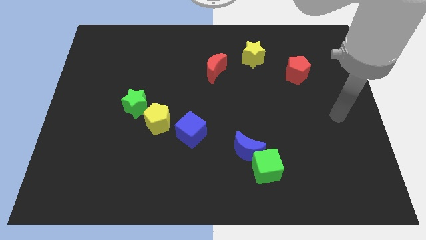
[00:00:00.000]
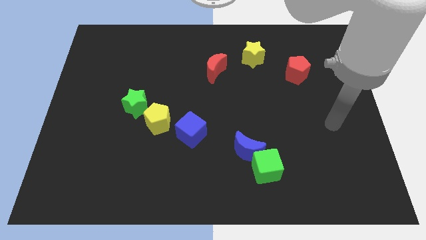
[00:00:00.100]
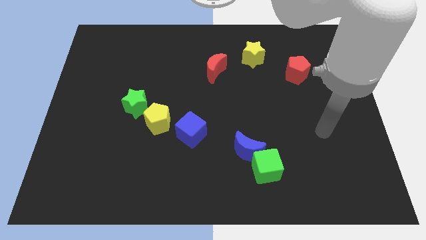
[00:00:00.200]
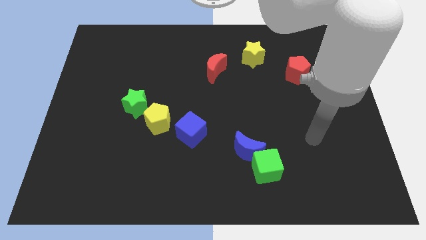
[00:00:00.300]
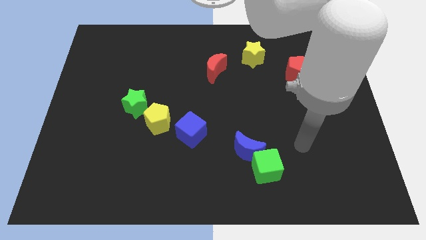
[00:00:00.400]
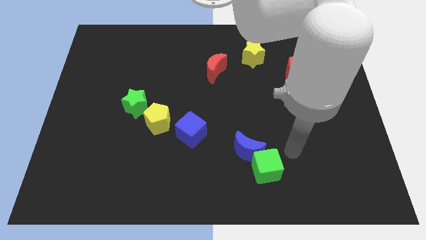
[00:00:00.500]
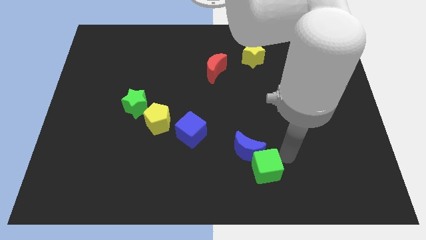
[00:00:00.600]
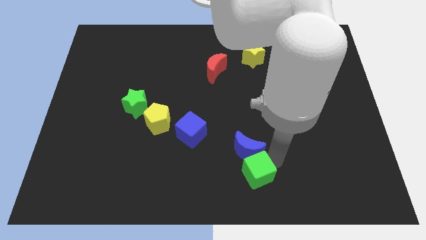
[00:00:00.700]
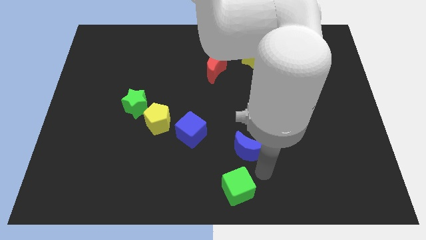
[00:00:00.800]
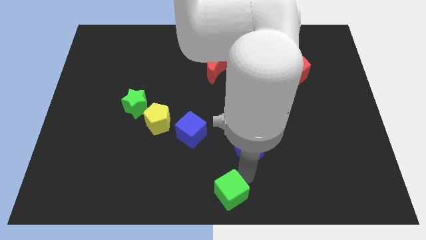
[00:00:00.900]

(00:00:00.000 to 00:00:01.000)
pull the blue moon apart from the green cube

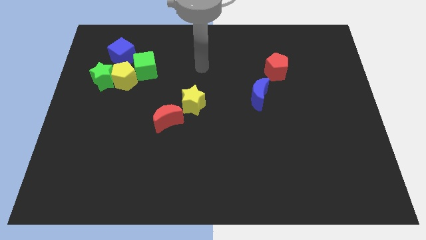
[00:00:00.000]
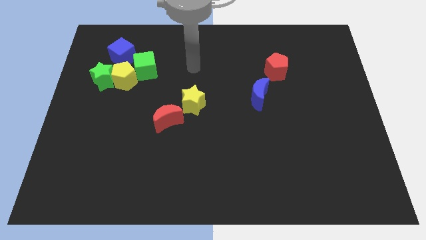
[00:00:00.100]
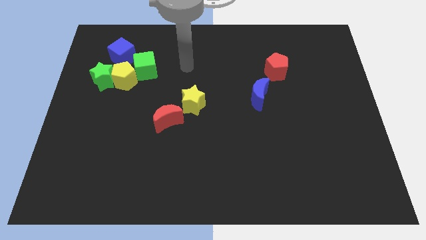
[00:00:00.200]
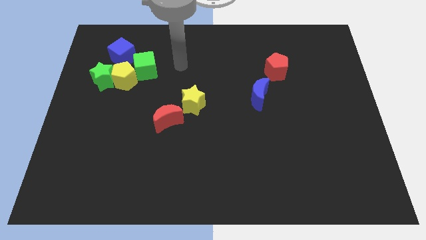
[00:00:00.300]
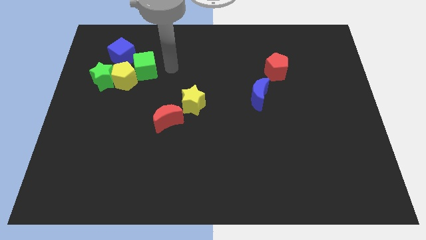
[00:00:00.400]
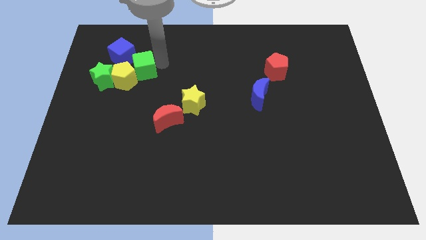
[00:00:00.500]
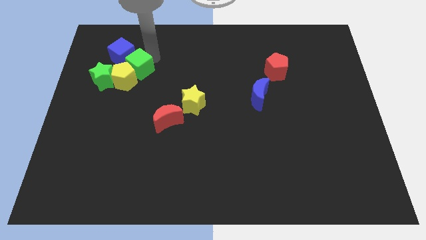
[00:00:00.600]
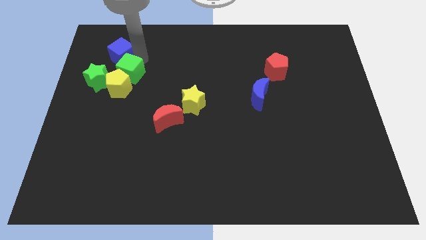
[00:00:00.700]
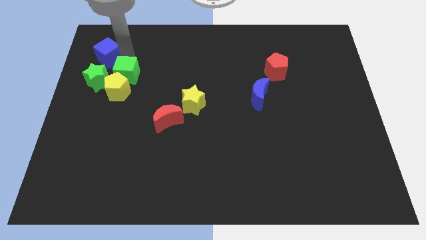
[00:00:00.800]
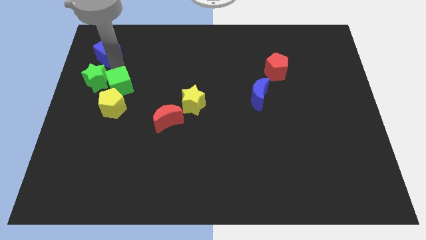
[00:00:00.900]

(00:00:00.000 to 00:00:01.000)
separate the yellow pentagon from the green star, green cube, and blue cube

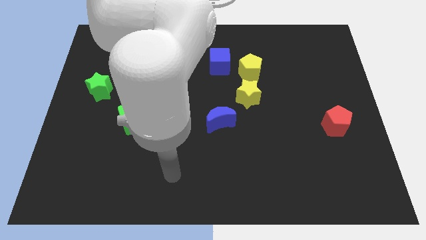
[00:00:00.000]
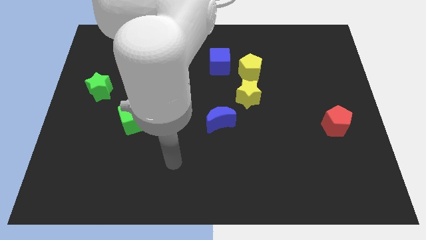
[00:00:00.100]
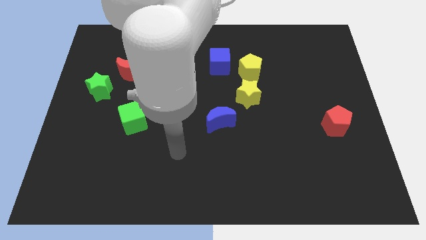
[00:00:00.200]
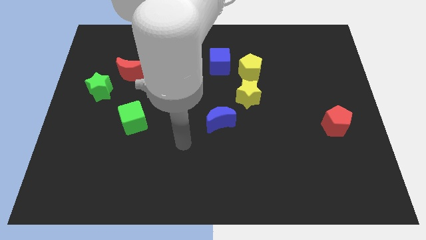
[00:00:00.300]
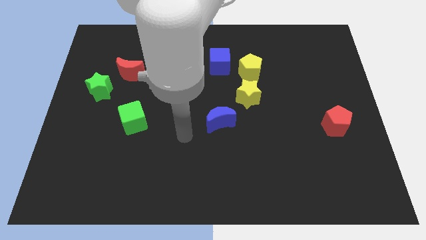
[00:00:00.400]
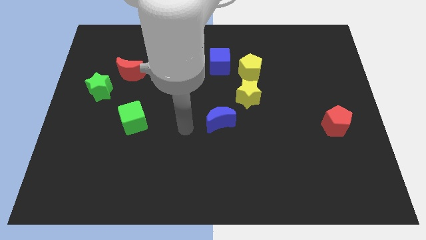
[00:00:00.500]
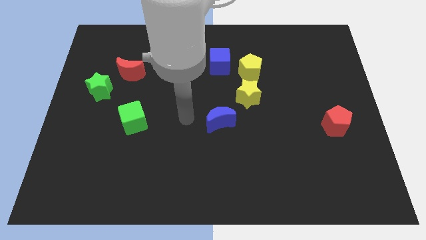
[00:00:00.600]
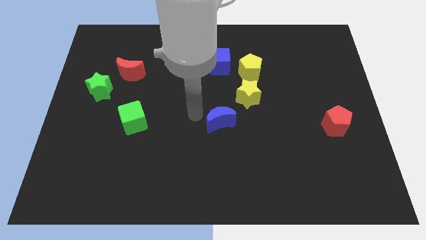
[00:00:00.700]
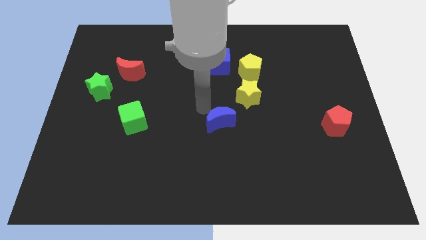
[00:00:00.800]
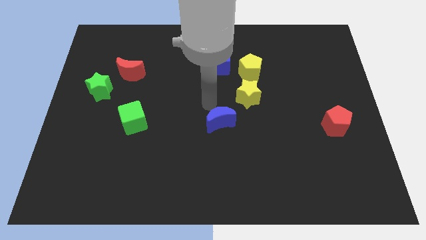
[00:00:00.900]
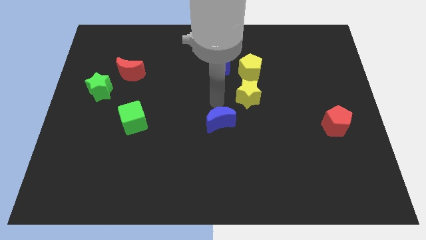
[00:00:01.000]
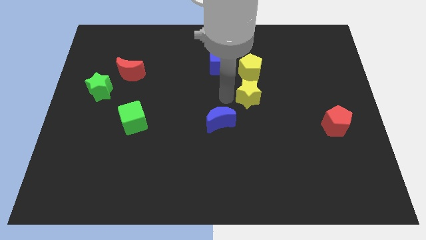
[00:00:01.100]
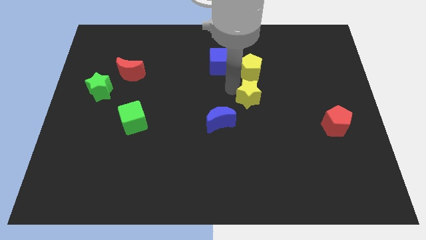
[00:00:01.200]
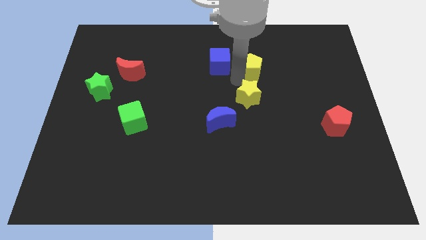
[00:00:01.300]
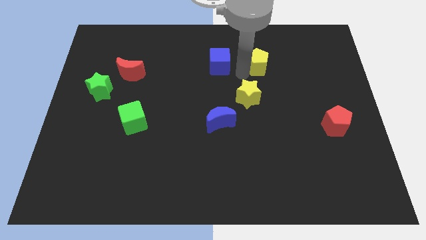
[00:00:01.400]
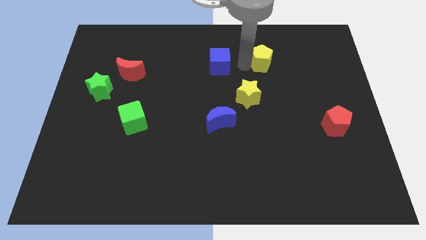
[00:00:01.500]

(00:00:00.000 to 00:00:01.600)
move the blue cube away from the yellow pentagon

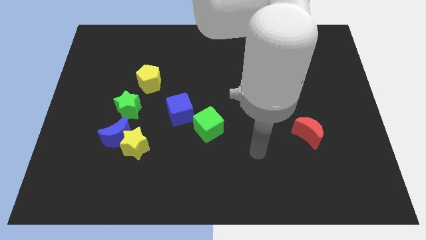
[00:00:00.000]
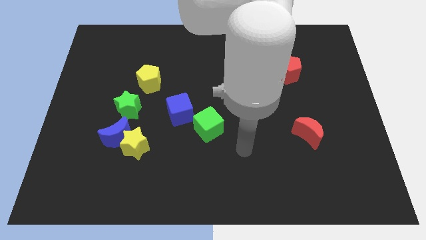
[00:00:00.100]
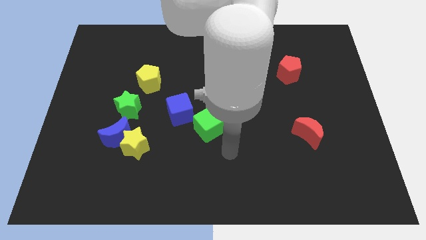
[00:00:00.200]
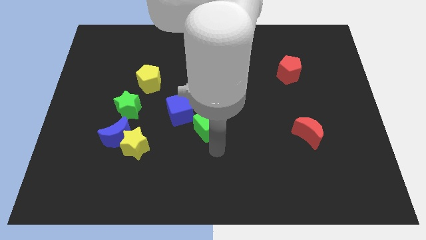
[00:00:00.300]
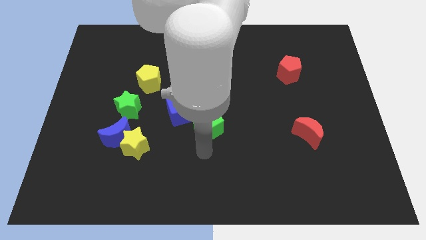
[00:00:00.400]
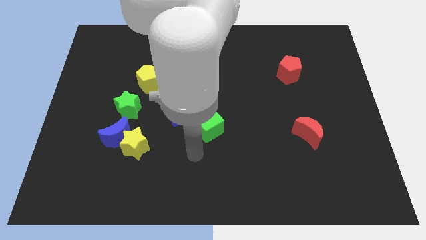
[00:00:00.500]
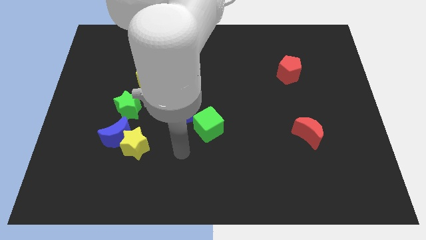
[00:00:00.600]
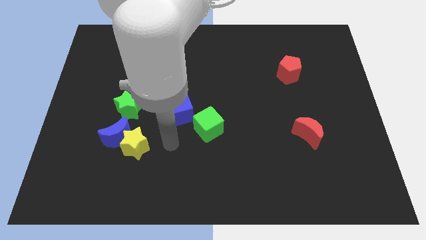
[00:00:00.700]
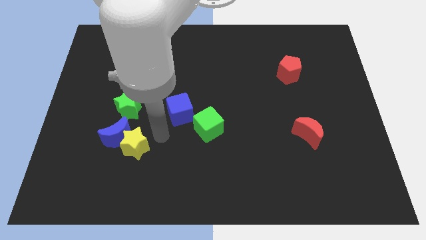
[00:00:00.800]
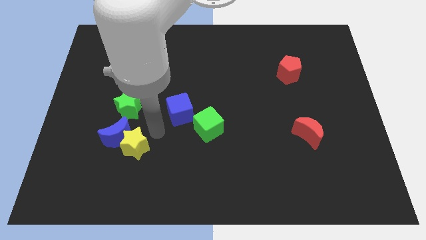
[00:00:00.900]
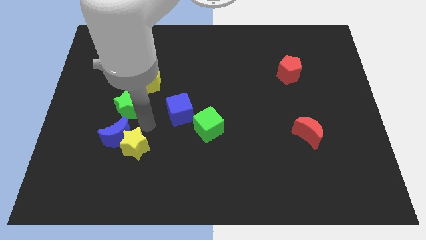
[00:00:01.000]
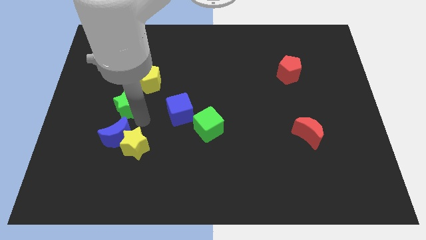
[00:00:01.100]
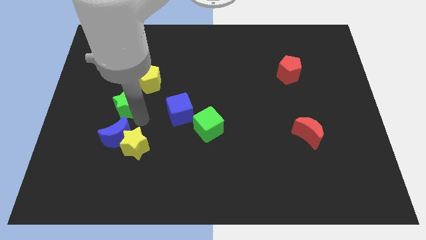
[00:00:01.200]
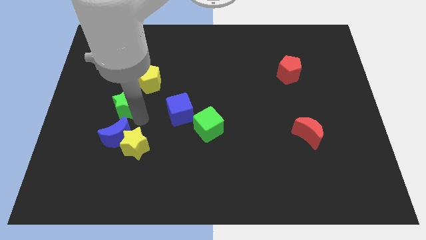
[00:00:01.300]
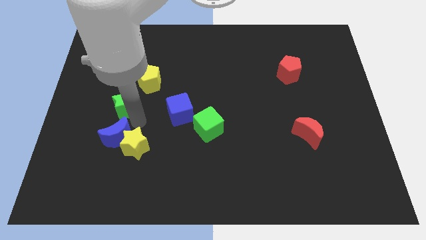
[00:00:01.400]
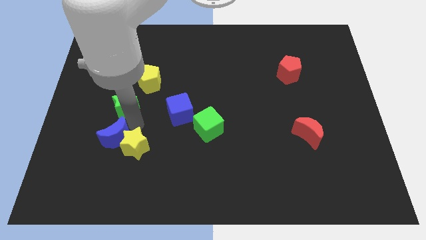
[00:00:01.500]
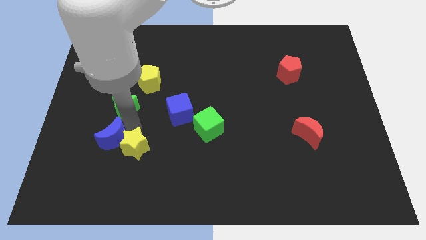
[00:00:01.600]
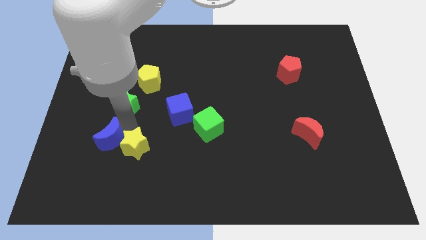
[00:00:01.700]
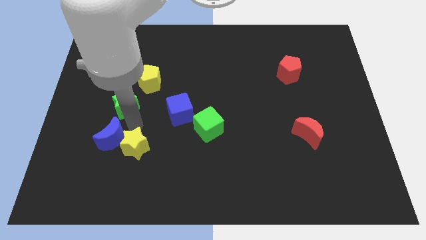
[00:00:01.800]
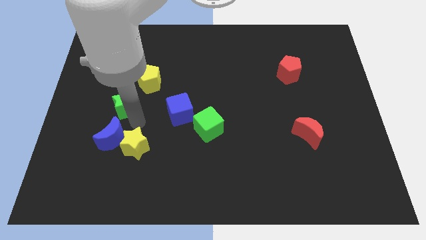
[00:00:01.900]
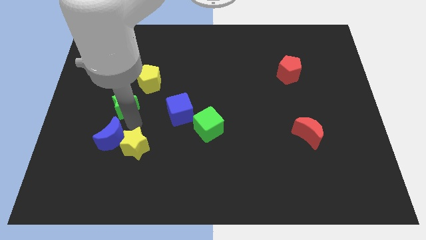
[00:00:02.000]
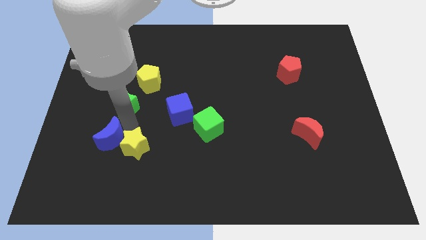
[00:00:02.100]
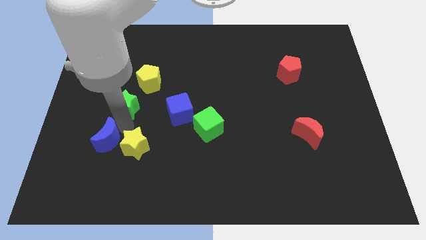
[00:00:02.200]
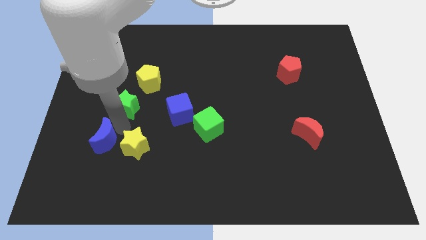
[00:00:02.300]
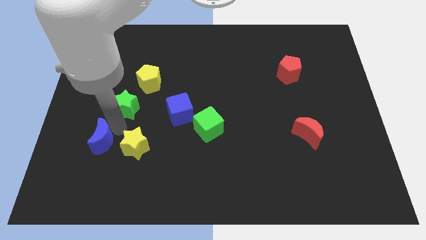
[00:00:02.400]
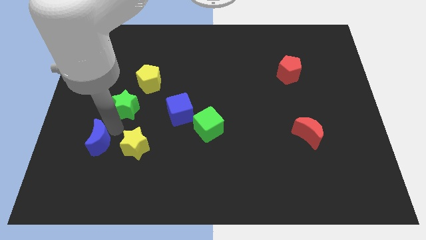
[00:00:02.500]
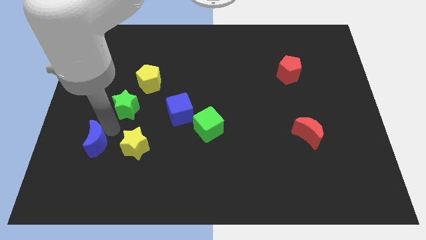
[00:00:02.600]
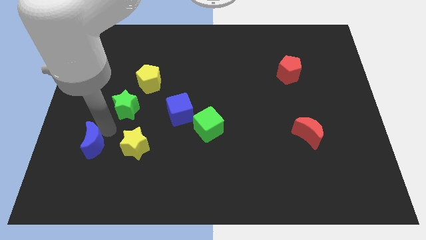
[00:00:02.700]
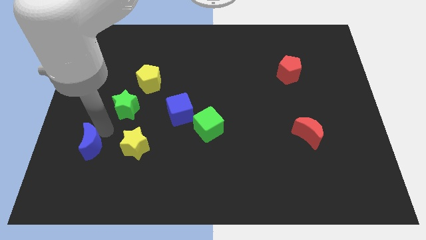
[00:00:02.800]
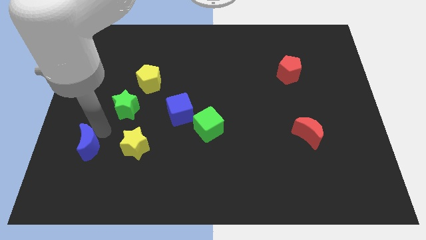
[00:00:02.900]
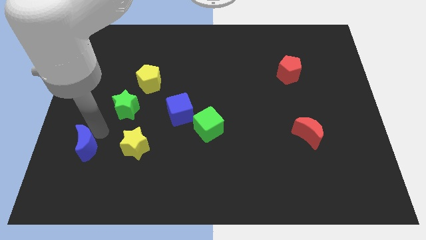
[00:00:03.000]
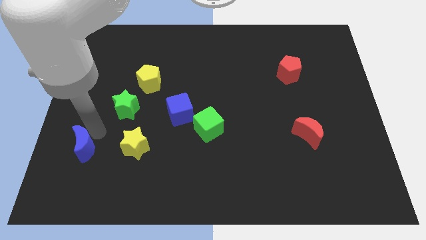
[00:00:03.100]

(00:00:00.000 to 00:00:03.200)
pull the blue moon apart from the yellow star and green star

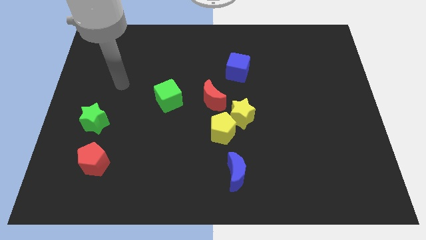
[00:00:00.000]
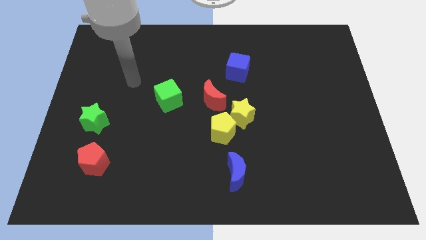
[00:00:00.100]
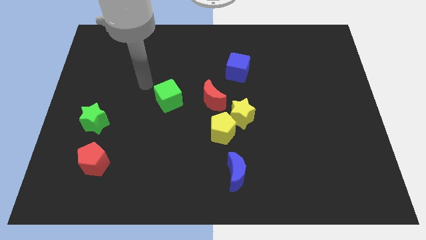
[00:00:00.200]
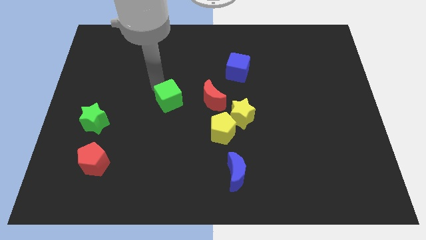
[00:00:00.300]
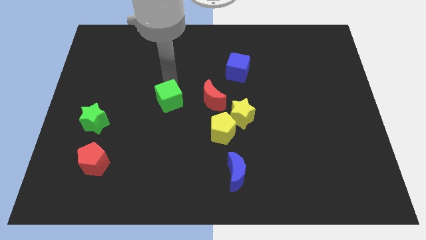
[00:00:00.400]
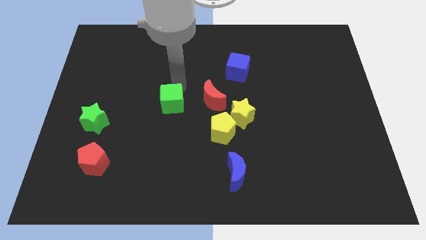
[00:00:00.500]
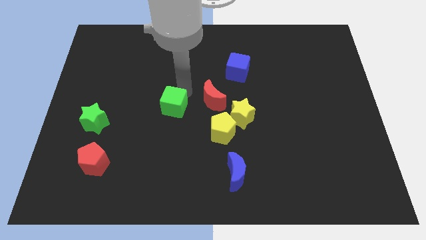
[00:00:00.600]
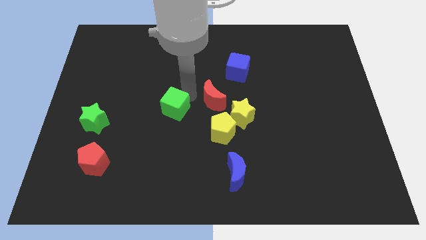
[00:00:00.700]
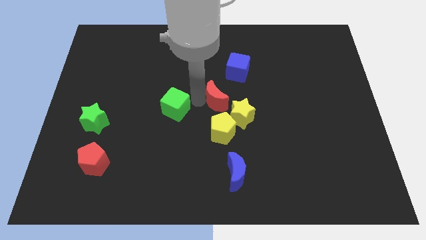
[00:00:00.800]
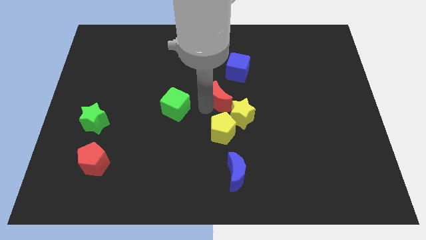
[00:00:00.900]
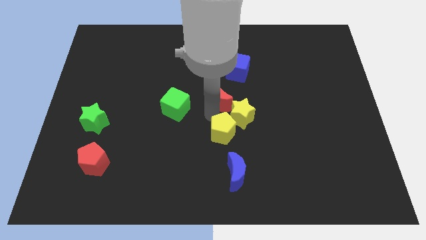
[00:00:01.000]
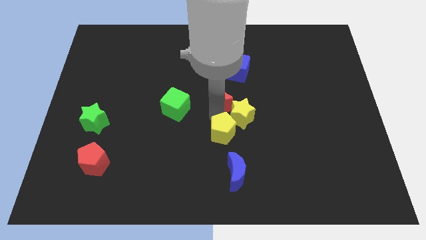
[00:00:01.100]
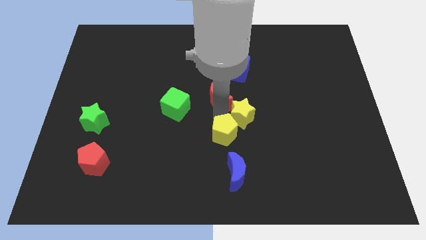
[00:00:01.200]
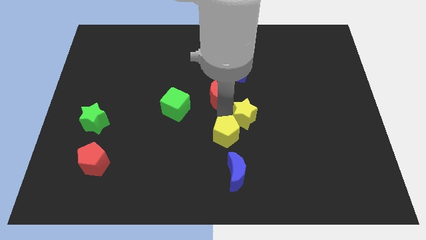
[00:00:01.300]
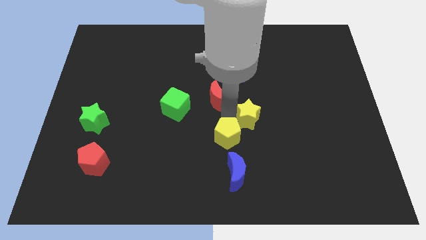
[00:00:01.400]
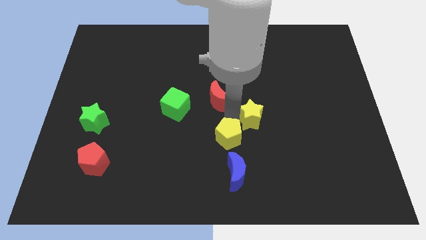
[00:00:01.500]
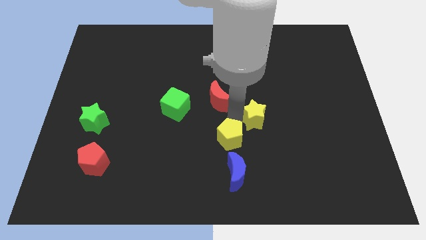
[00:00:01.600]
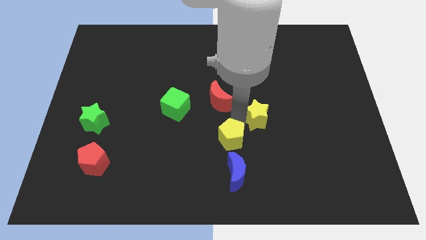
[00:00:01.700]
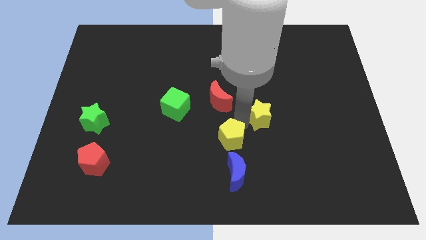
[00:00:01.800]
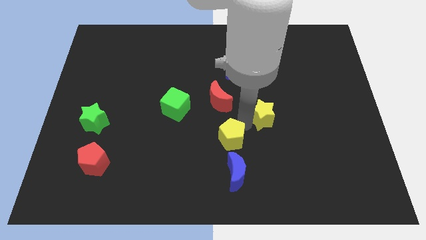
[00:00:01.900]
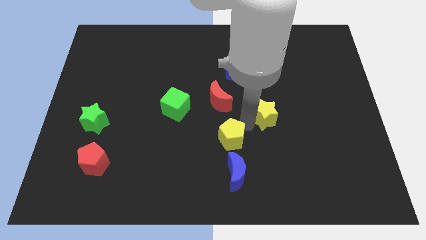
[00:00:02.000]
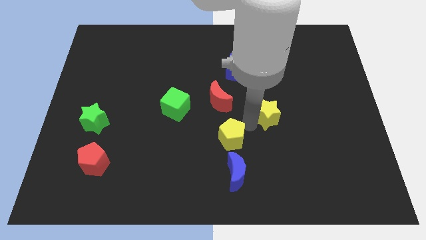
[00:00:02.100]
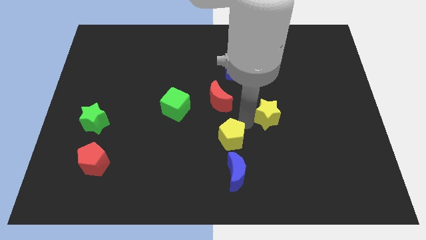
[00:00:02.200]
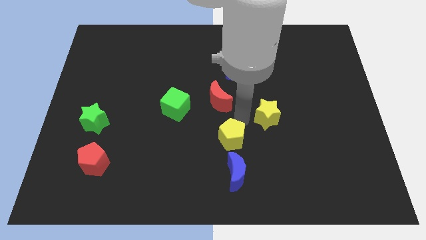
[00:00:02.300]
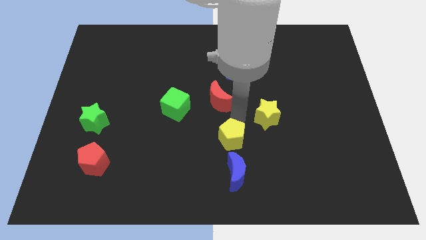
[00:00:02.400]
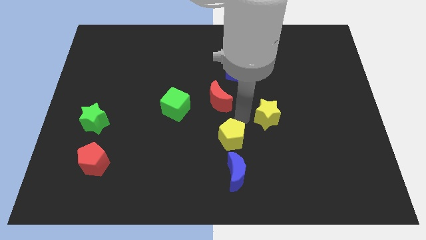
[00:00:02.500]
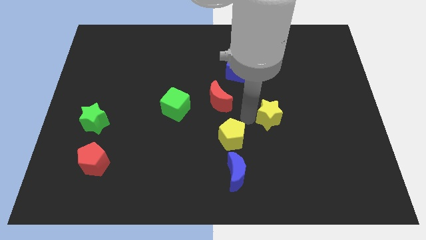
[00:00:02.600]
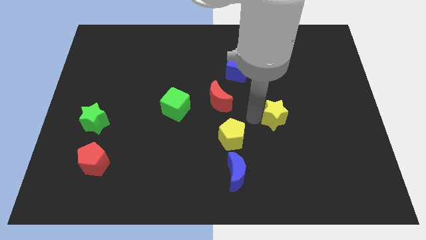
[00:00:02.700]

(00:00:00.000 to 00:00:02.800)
pull the yellow star apart from the yellow pentagon and red moon
